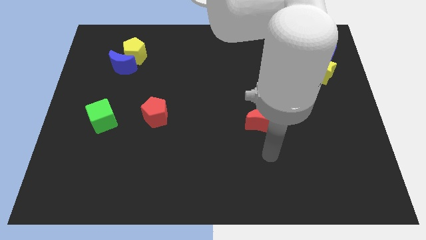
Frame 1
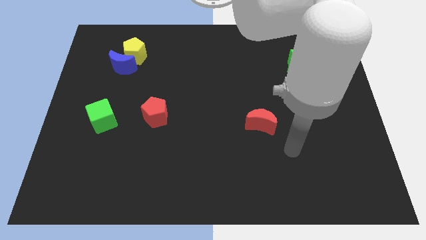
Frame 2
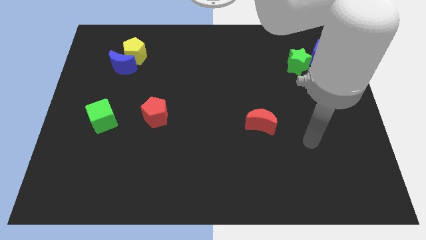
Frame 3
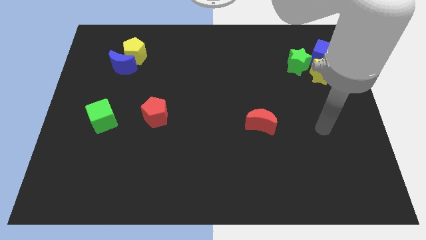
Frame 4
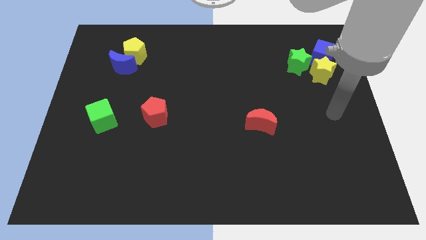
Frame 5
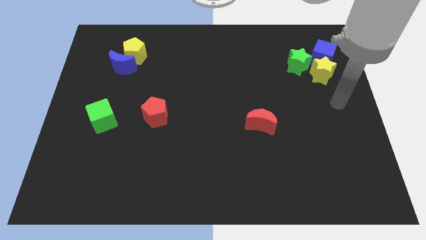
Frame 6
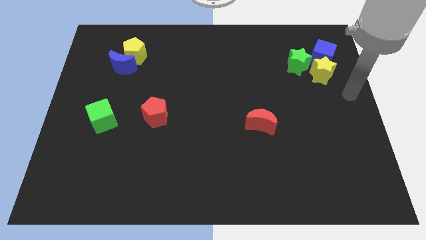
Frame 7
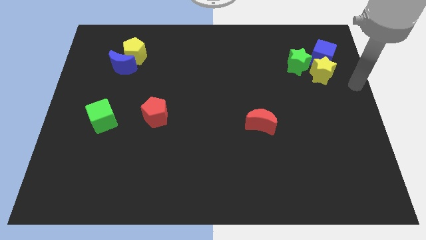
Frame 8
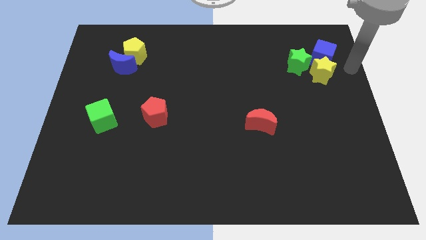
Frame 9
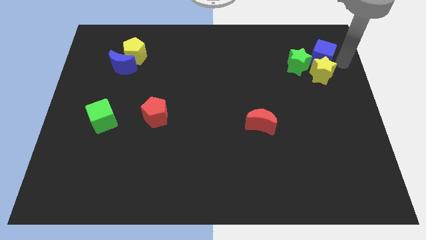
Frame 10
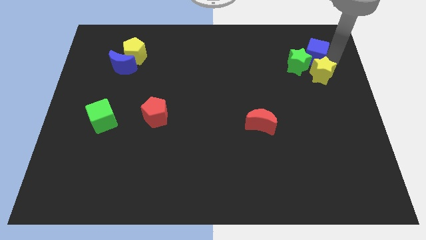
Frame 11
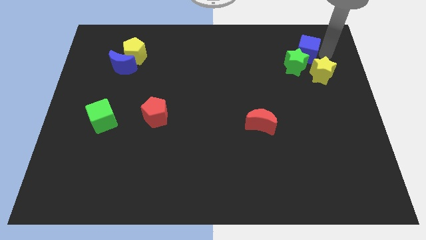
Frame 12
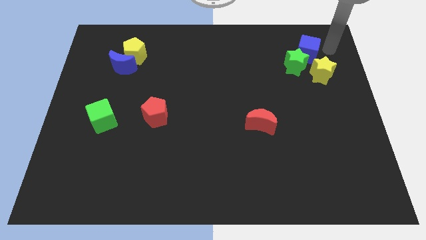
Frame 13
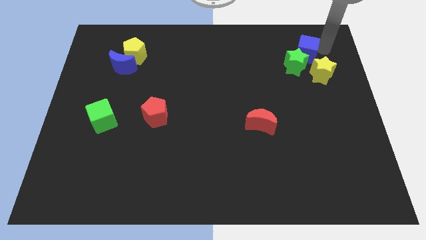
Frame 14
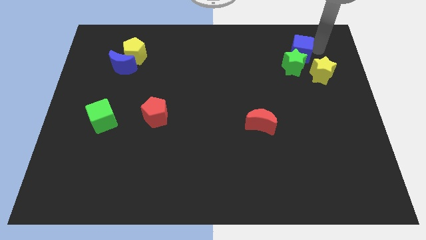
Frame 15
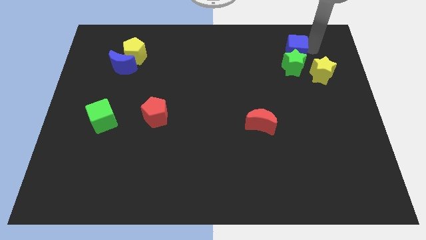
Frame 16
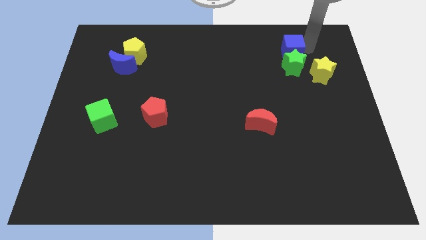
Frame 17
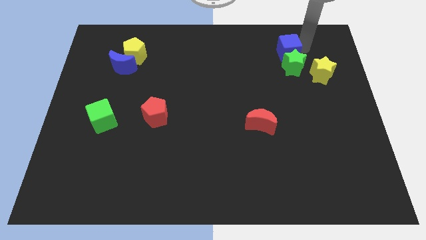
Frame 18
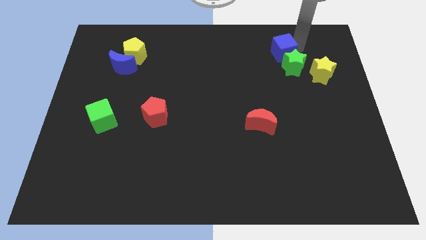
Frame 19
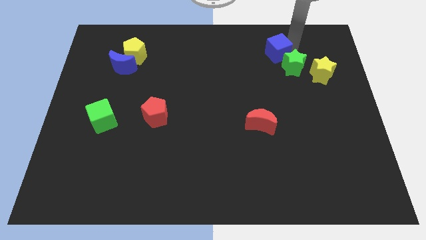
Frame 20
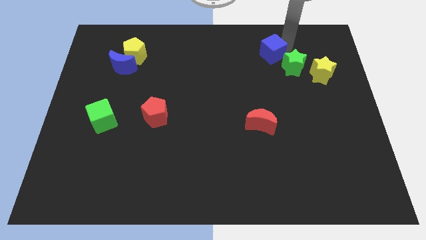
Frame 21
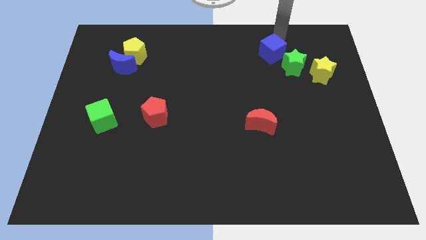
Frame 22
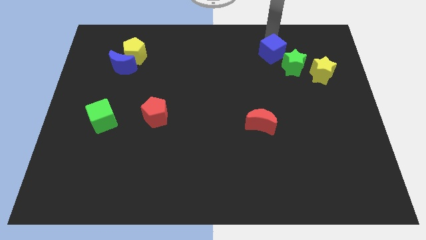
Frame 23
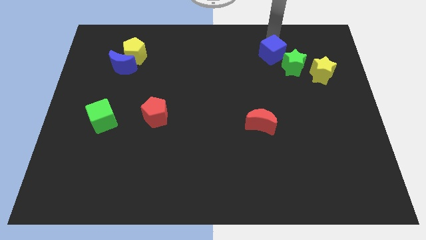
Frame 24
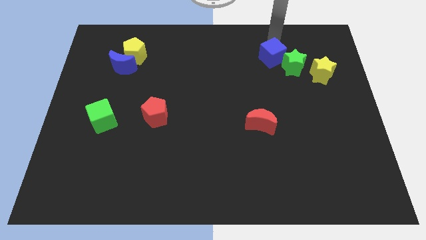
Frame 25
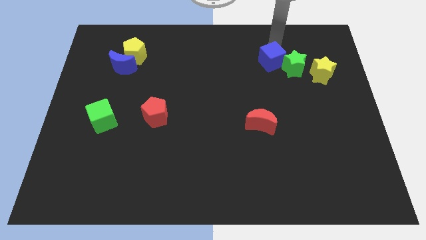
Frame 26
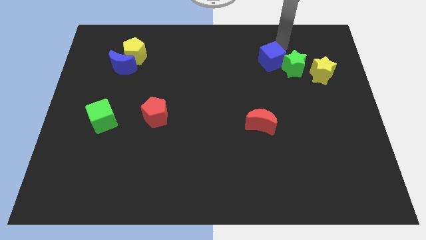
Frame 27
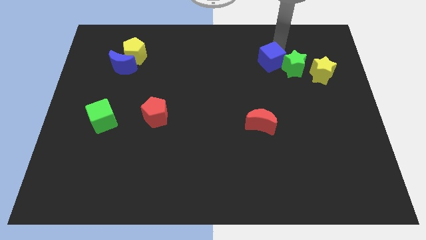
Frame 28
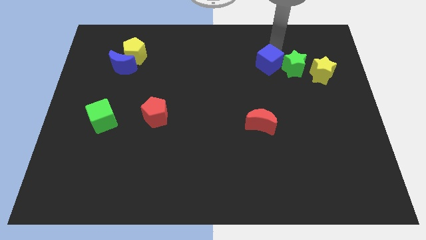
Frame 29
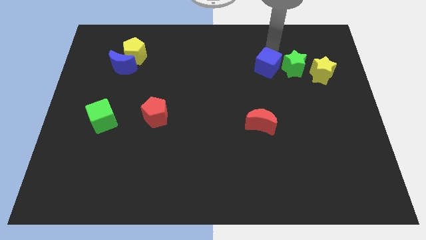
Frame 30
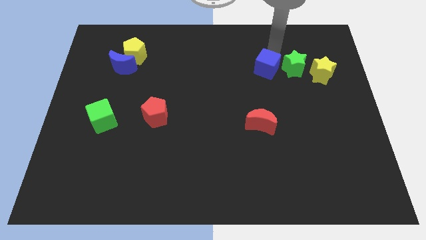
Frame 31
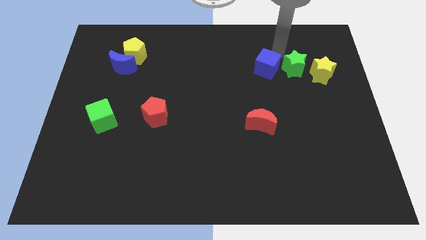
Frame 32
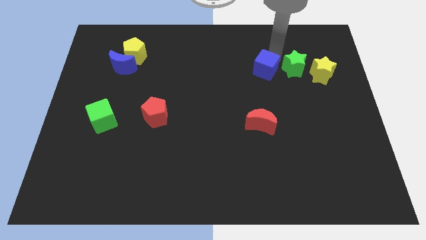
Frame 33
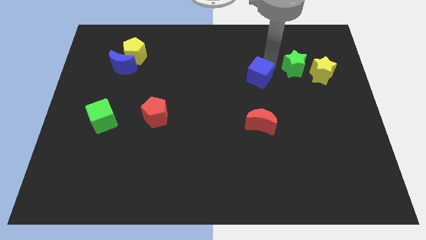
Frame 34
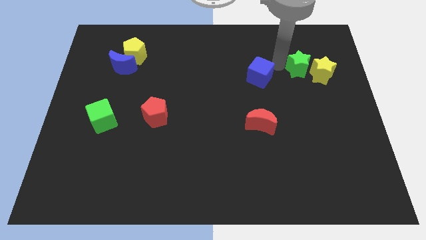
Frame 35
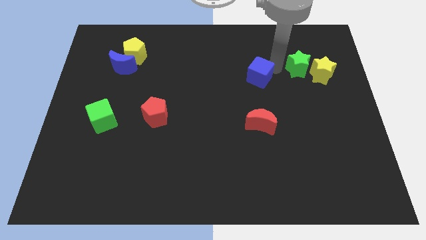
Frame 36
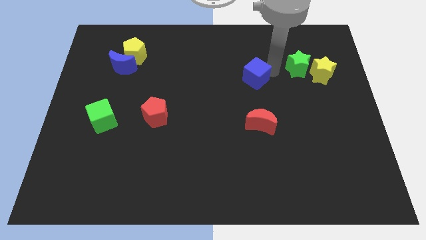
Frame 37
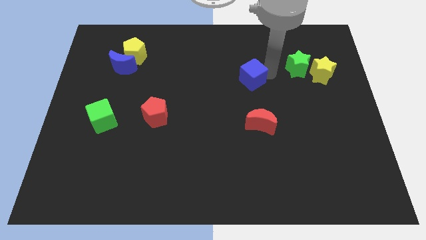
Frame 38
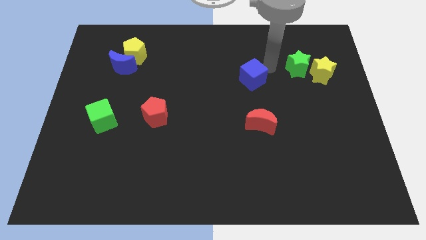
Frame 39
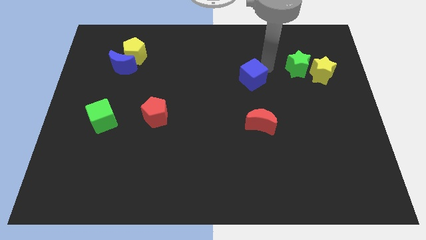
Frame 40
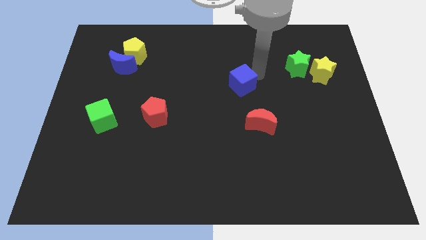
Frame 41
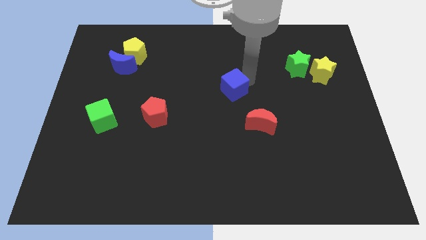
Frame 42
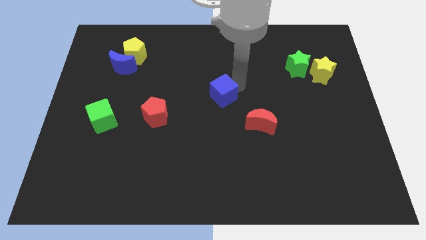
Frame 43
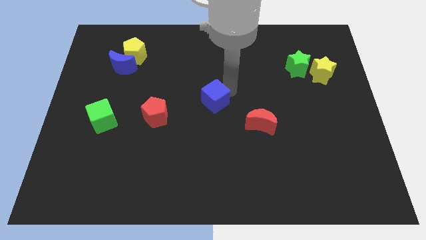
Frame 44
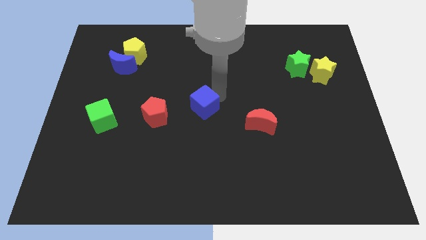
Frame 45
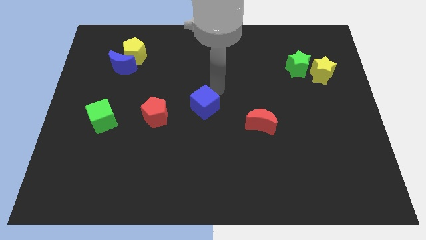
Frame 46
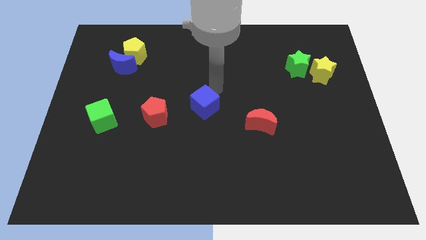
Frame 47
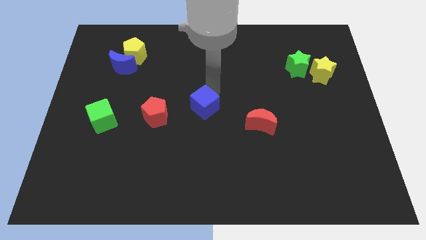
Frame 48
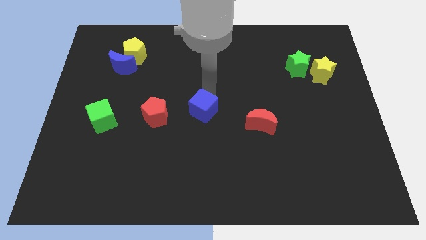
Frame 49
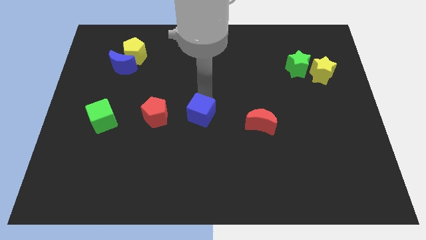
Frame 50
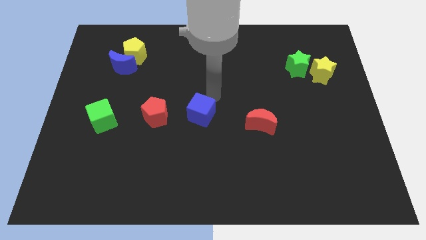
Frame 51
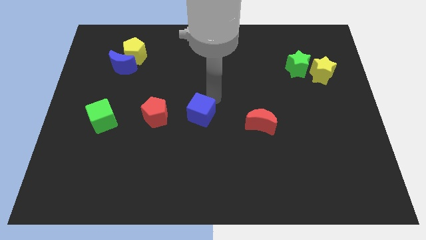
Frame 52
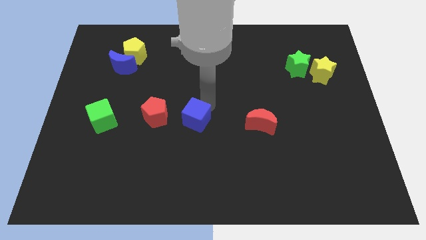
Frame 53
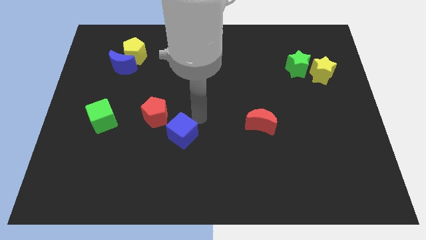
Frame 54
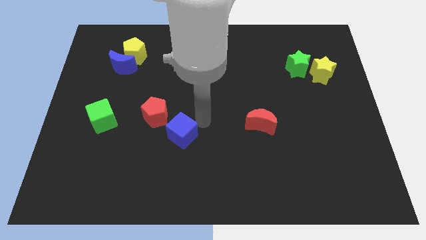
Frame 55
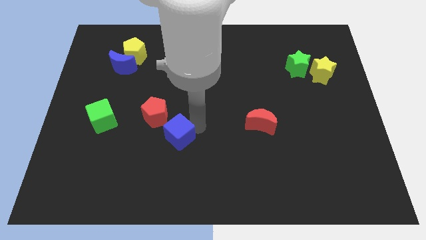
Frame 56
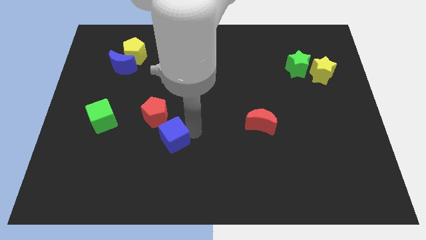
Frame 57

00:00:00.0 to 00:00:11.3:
put the blue cube to the bottom side of the red pentagon

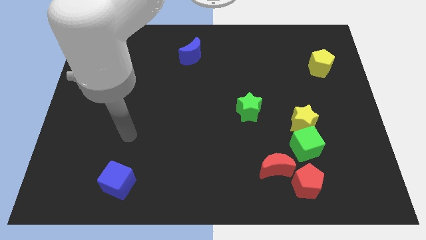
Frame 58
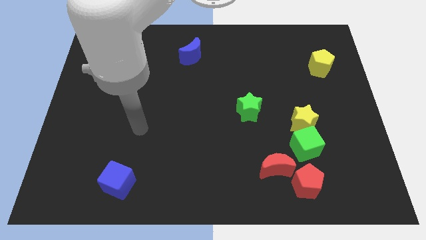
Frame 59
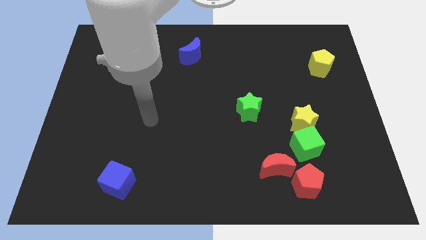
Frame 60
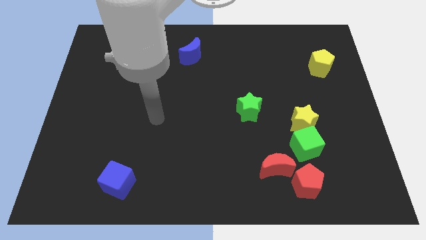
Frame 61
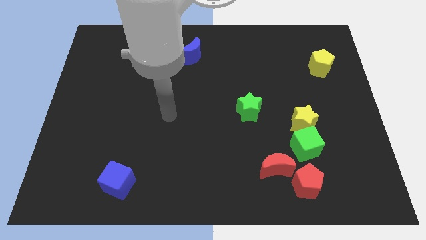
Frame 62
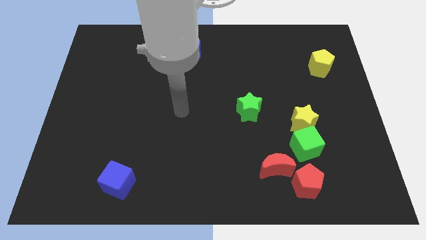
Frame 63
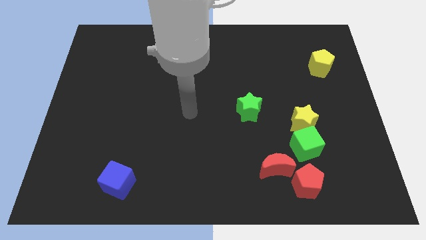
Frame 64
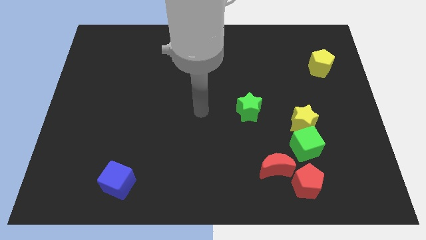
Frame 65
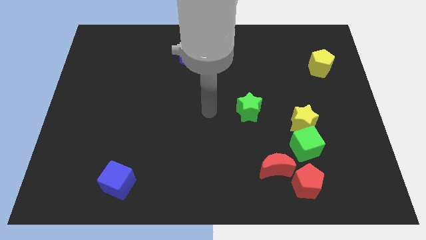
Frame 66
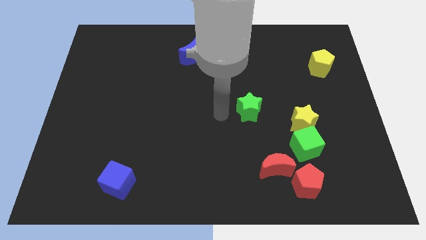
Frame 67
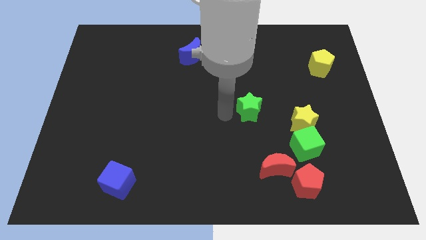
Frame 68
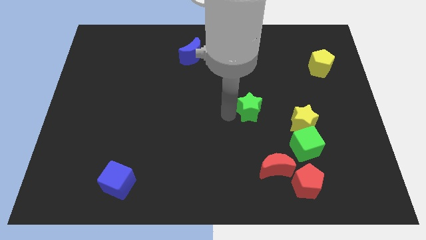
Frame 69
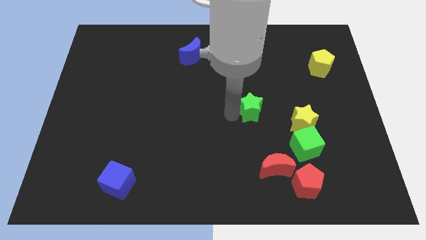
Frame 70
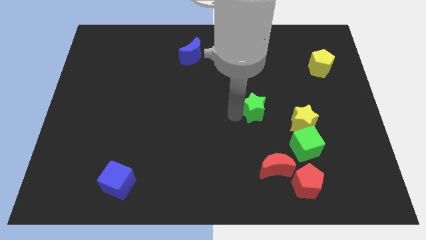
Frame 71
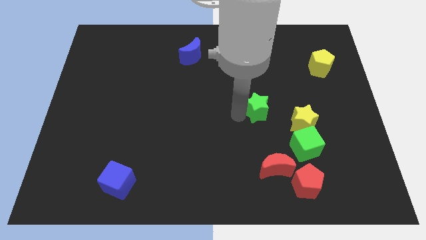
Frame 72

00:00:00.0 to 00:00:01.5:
slide the green star to the top left side of the yellow star
